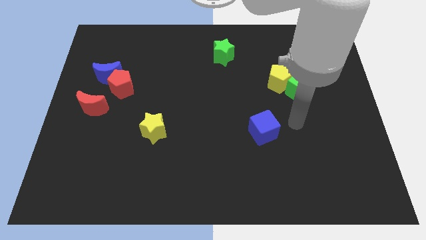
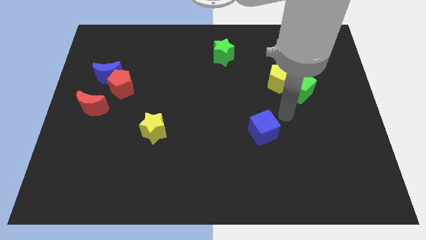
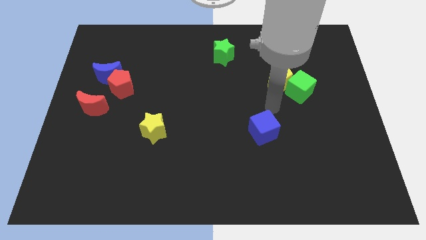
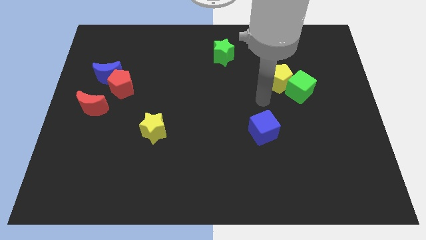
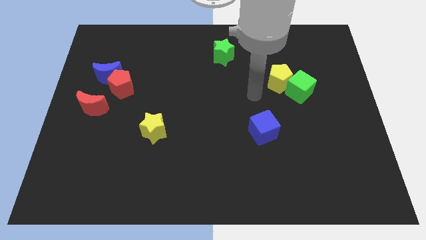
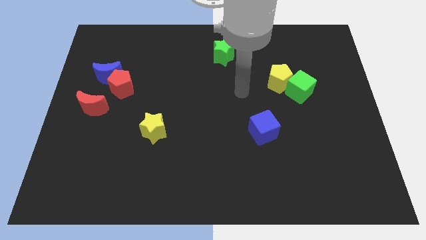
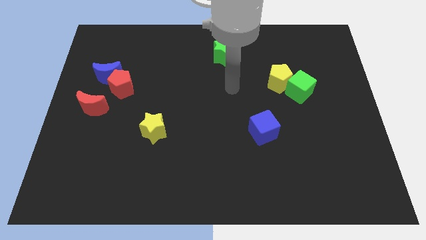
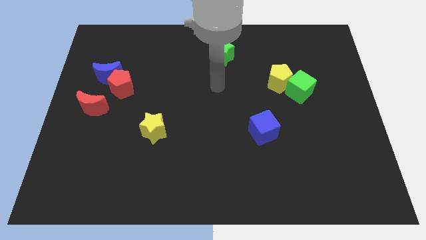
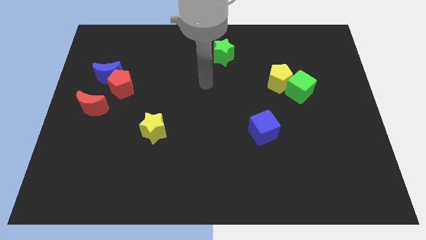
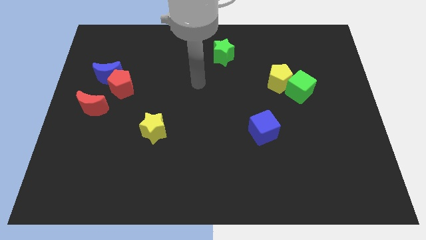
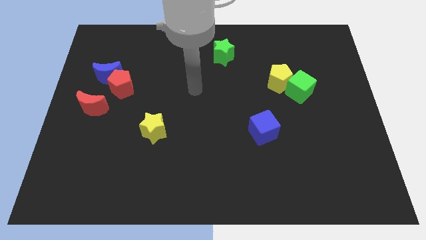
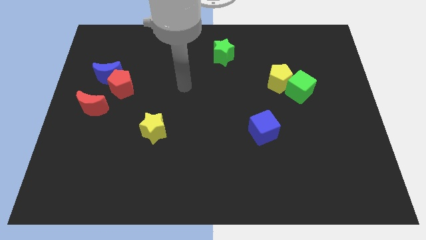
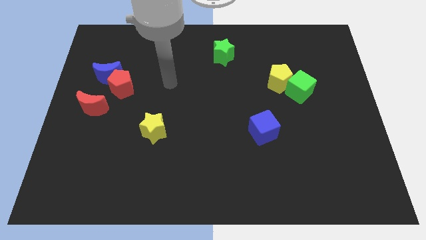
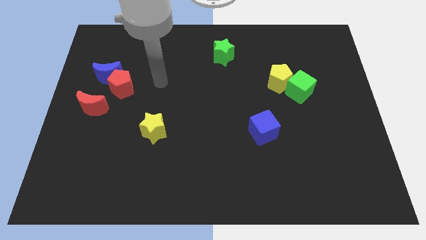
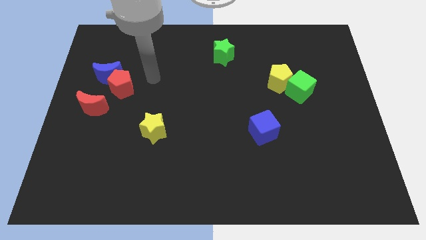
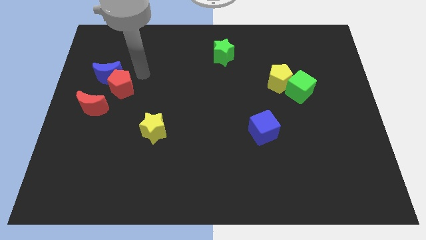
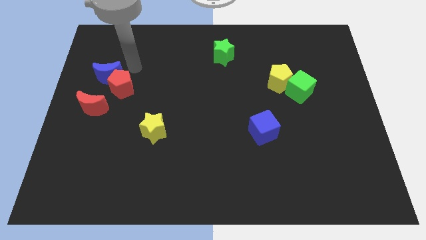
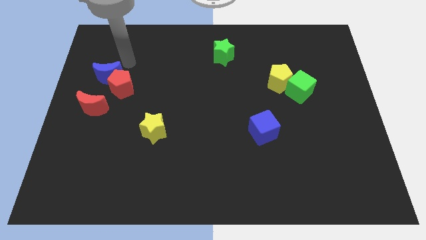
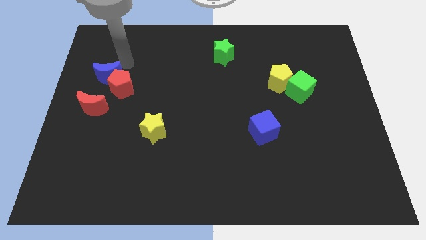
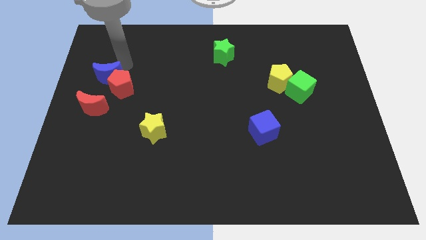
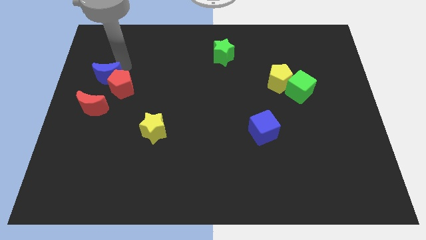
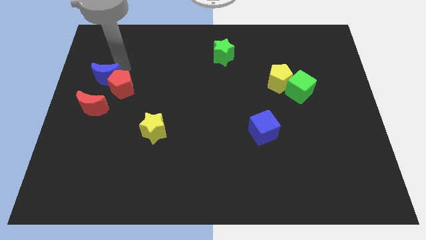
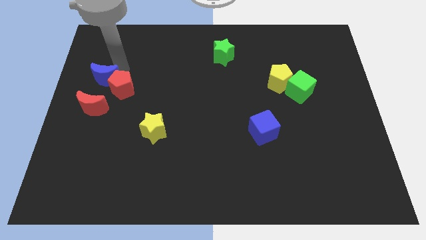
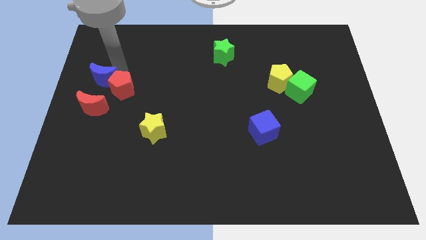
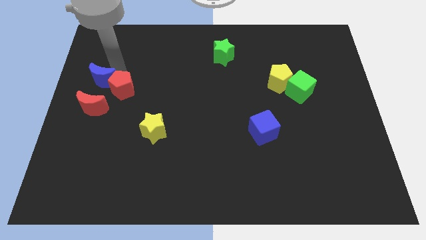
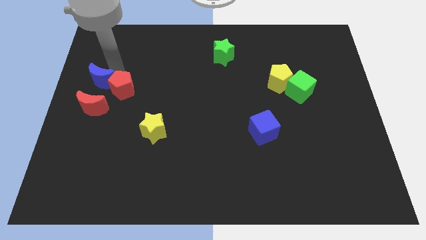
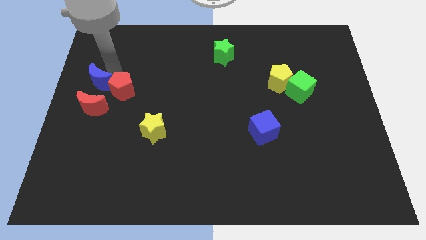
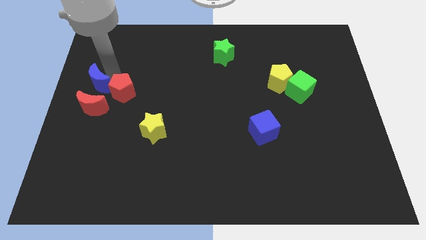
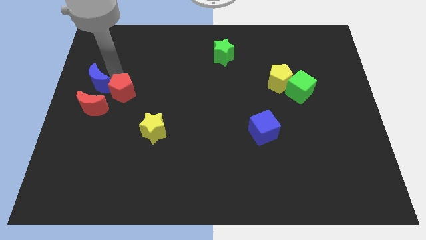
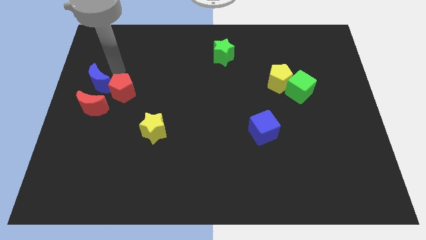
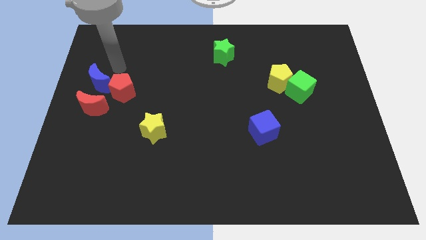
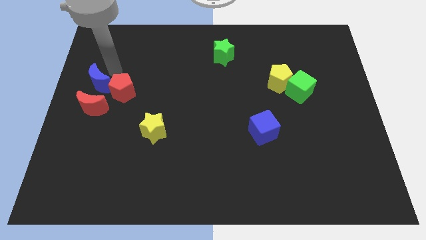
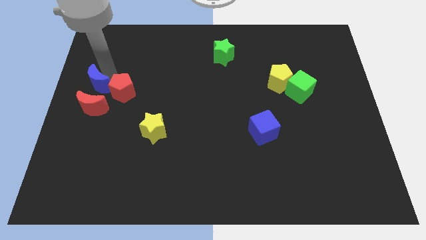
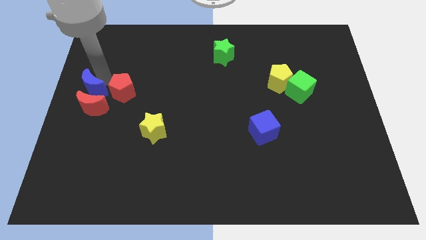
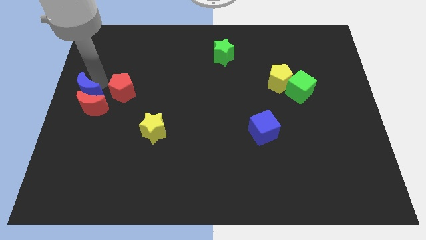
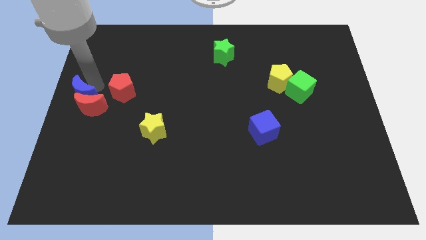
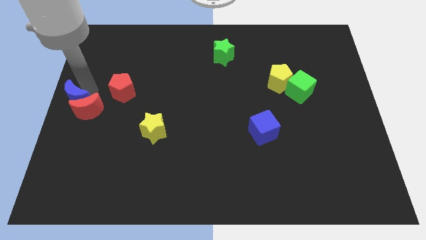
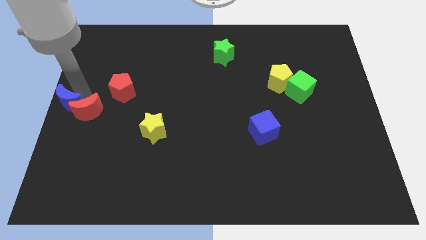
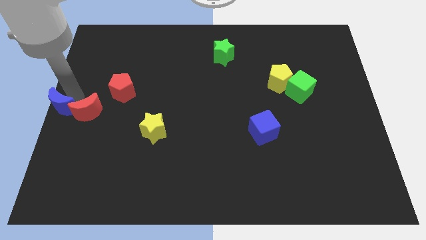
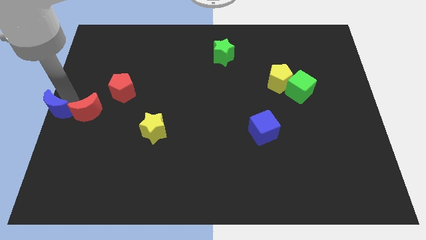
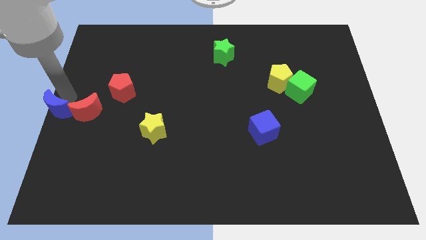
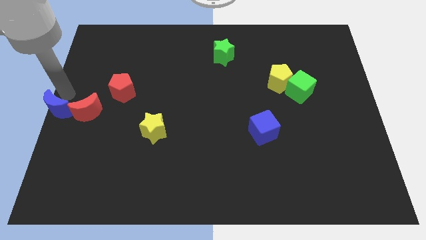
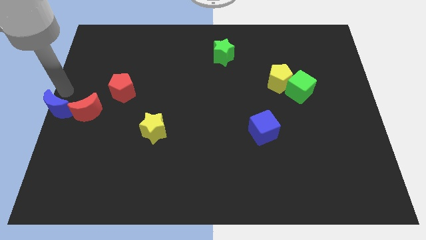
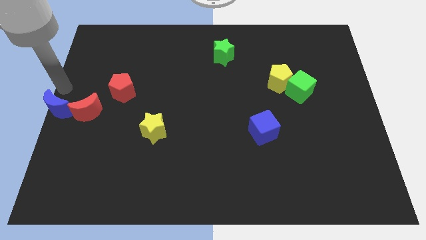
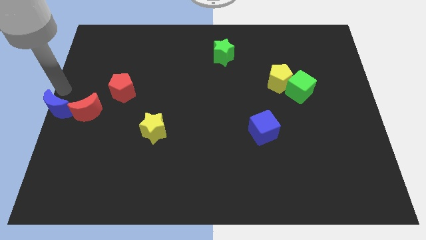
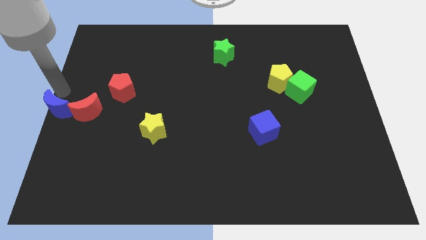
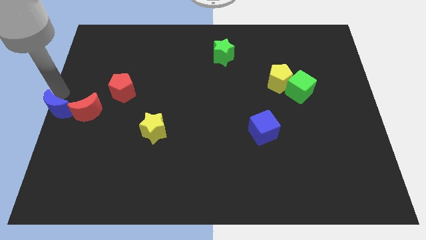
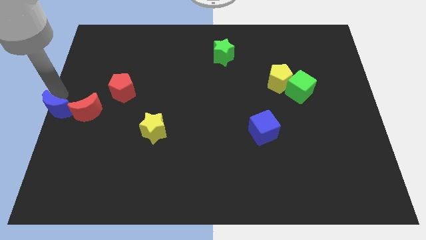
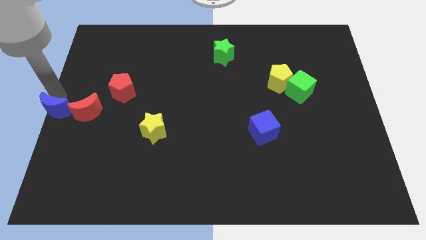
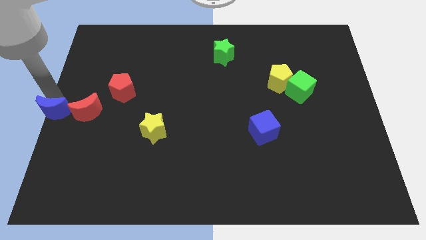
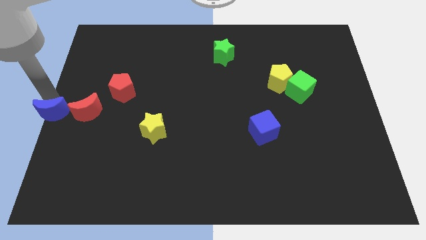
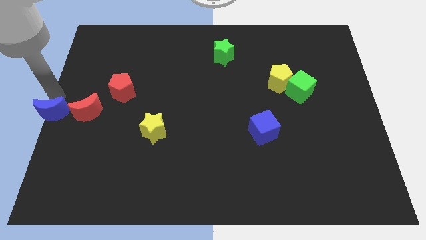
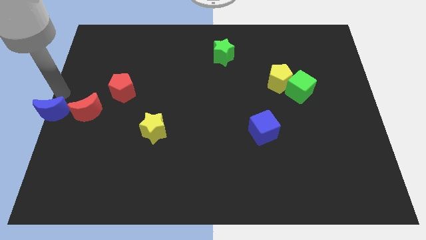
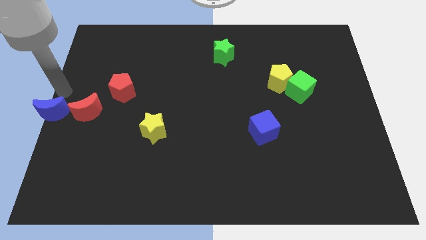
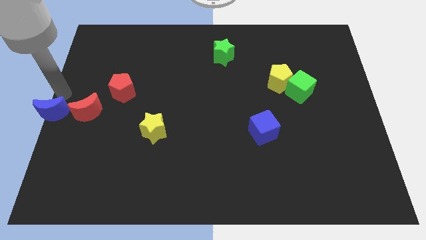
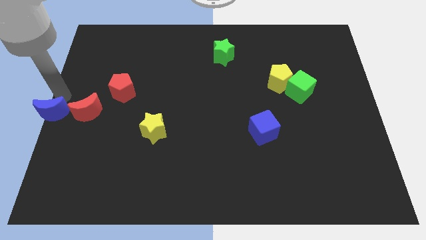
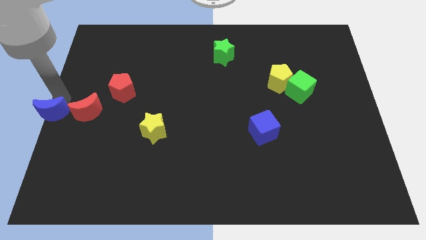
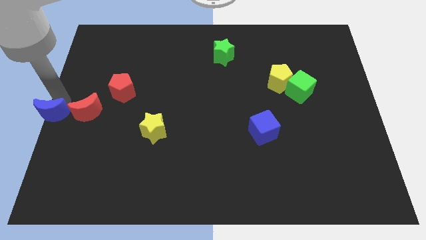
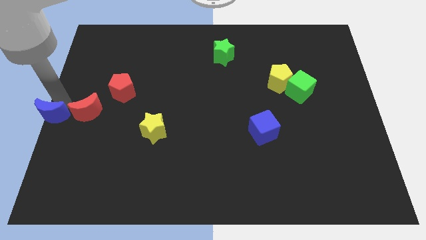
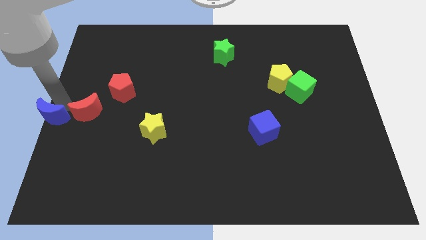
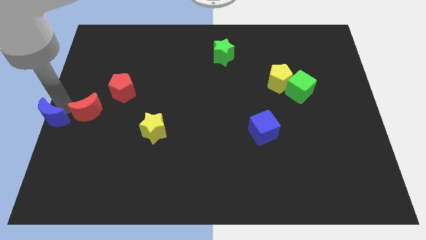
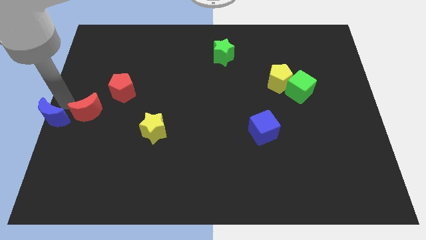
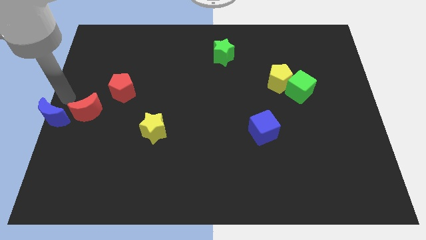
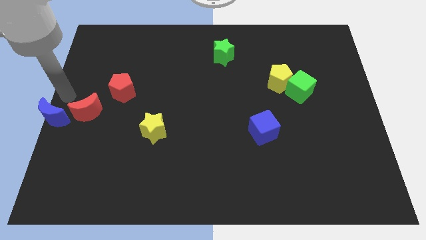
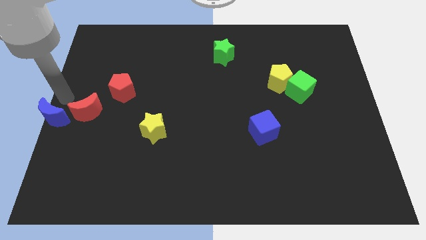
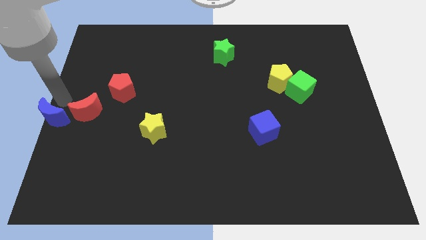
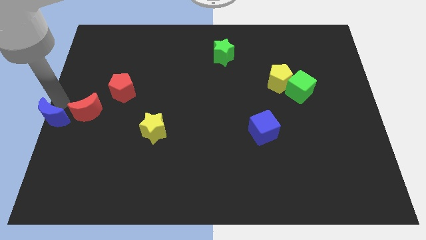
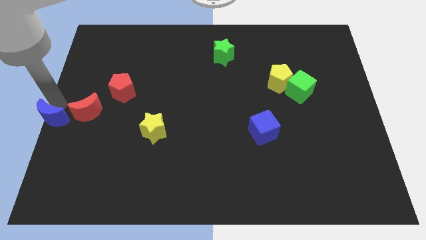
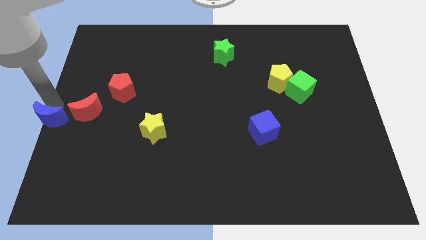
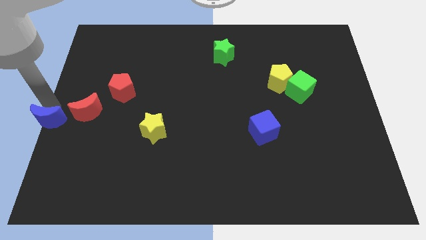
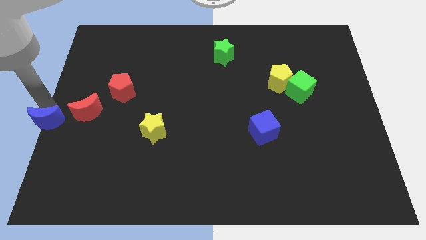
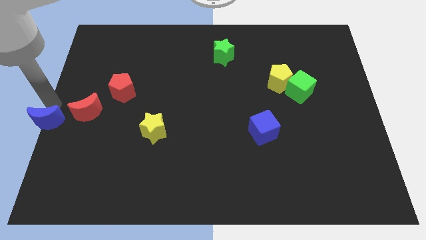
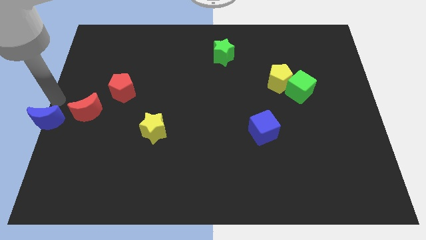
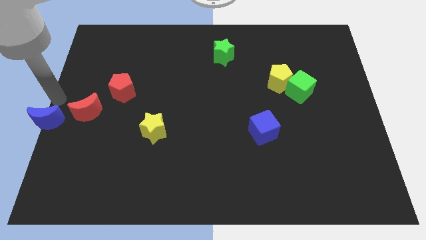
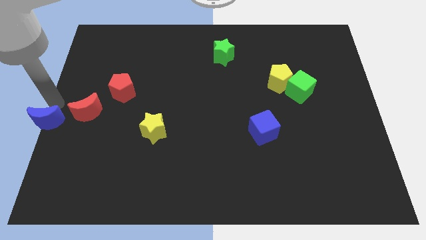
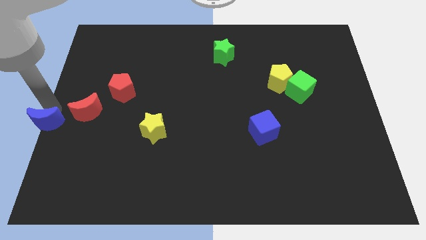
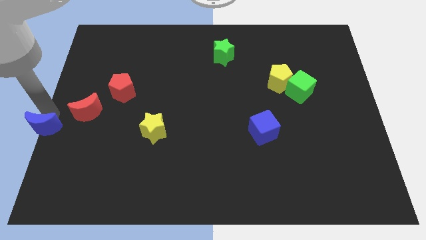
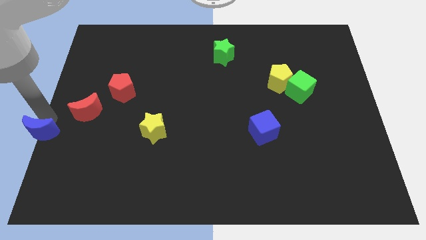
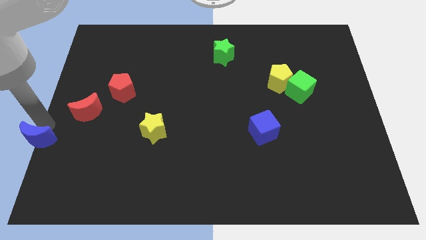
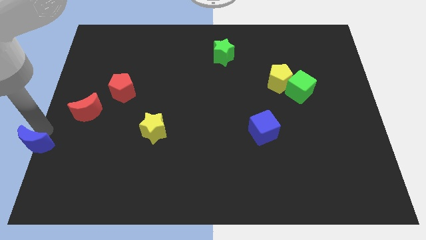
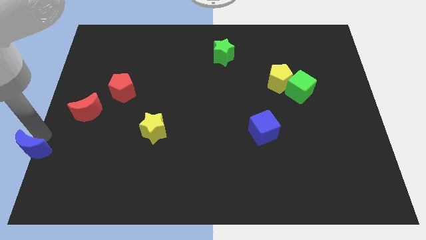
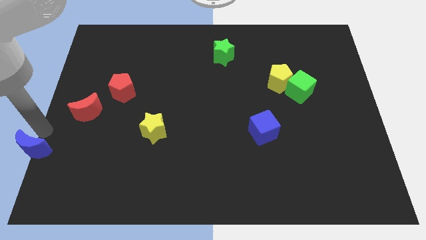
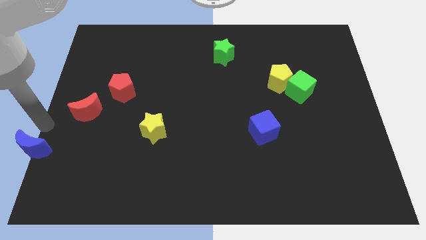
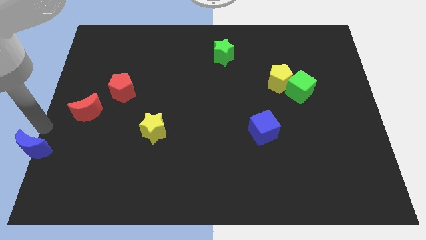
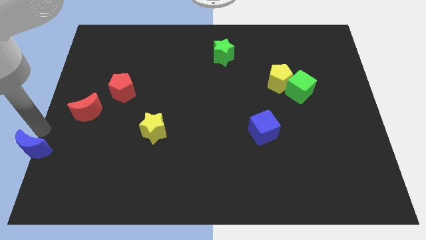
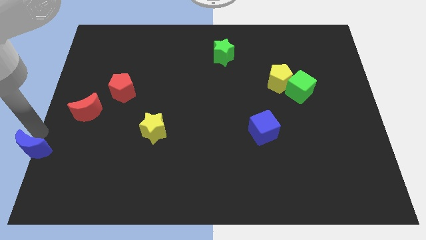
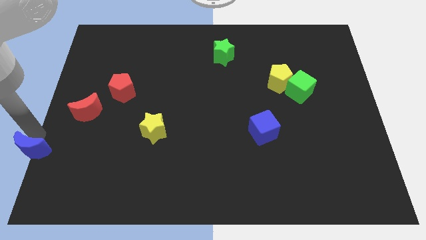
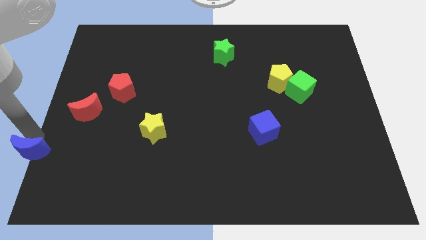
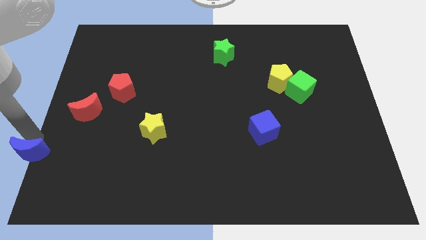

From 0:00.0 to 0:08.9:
push the blue moon to the bottom left corner
